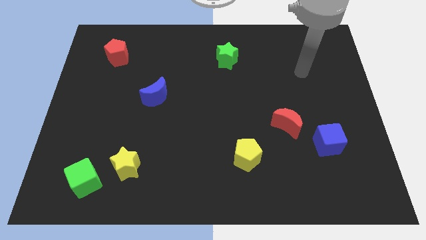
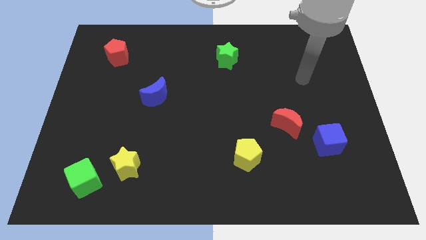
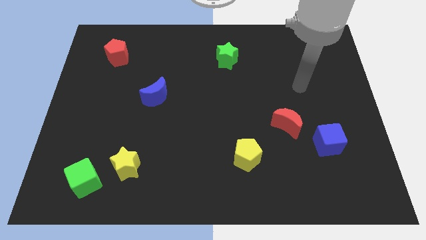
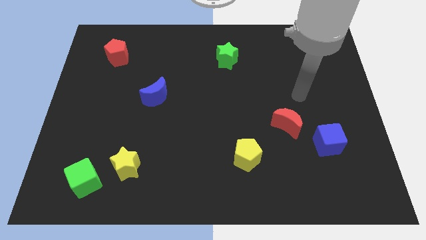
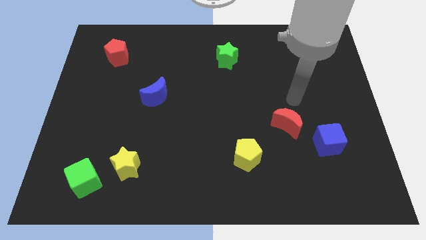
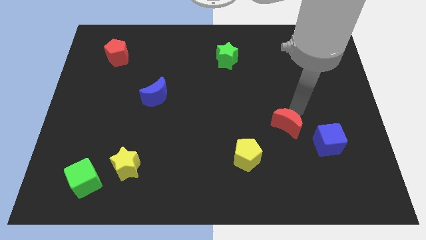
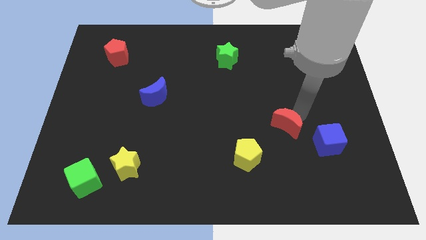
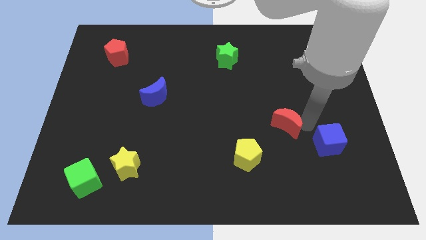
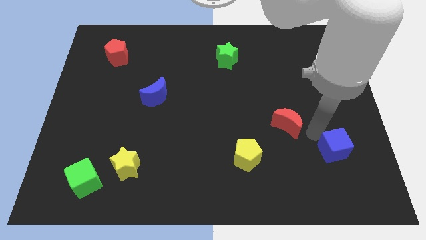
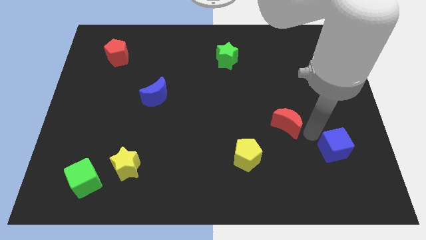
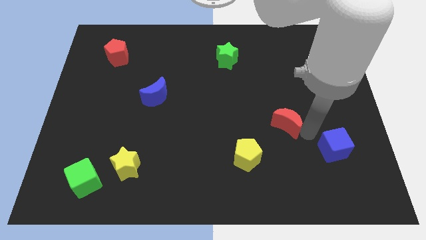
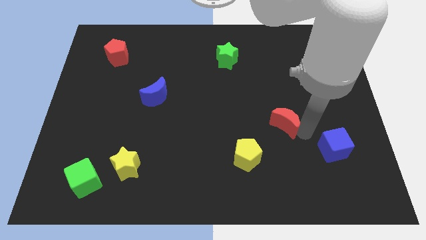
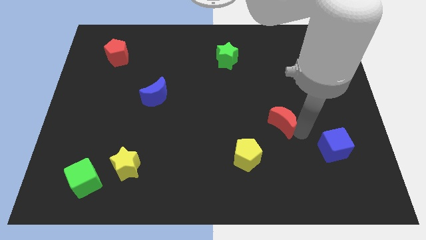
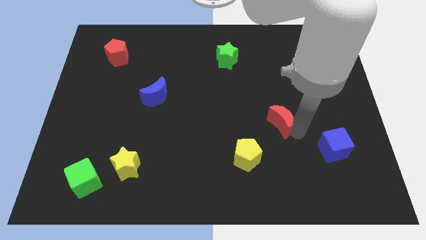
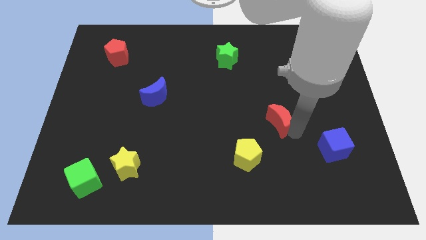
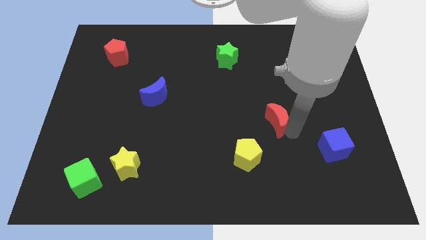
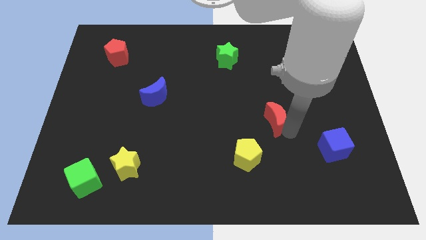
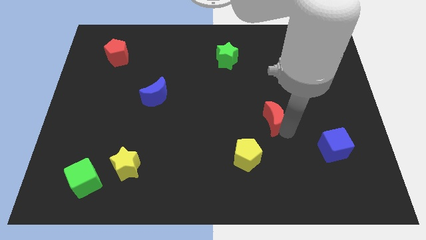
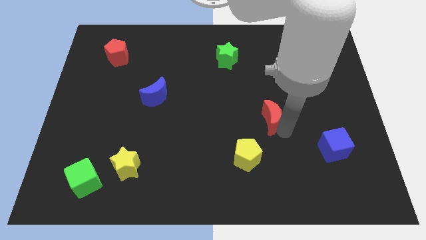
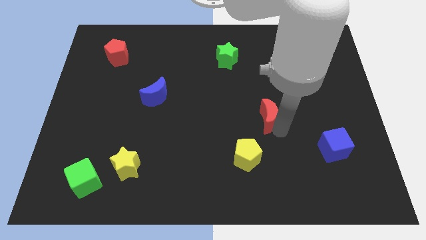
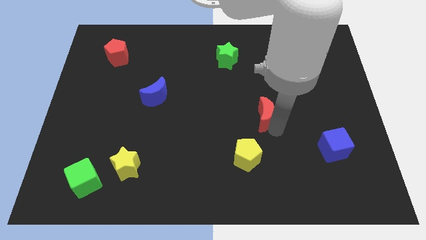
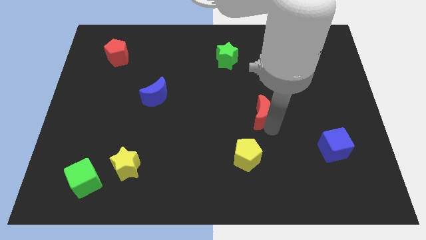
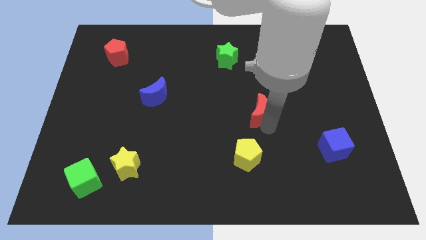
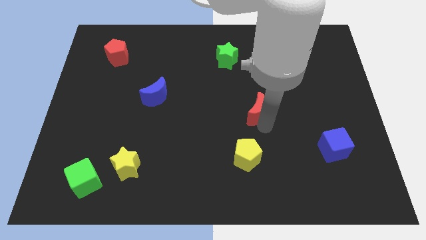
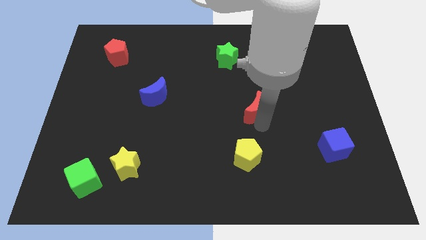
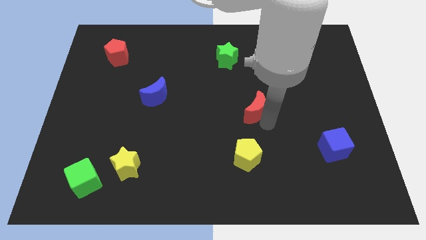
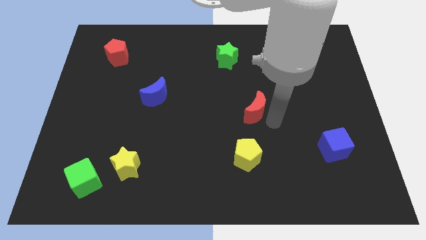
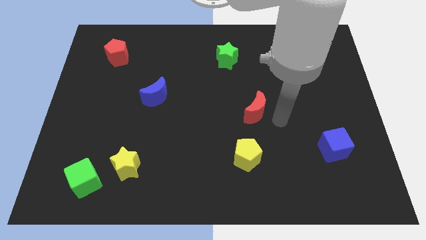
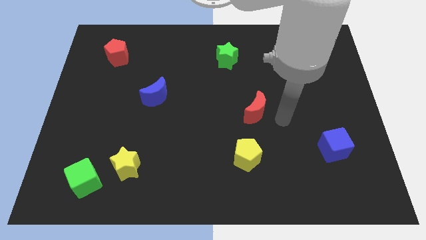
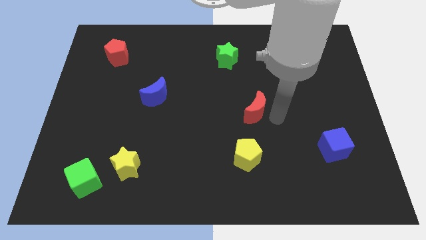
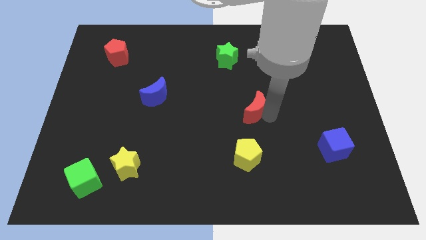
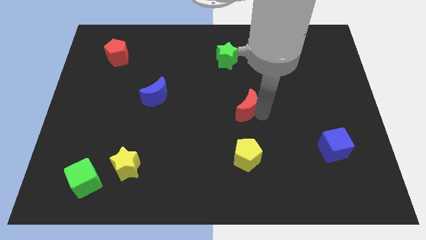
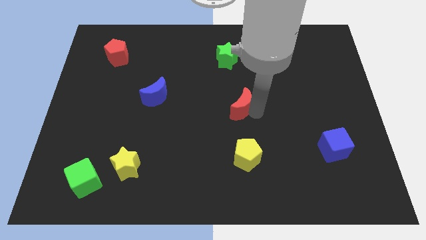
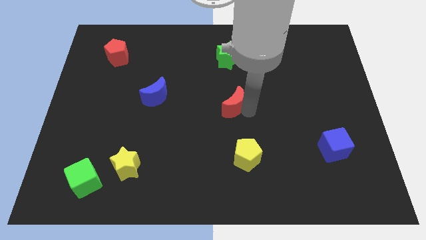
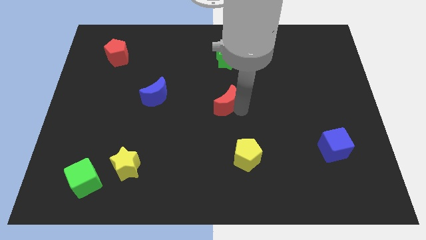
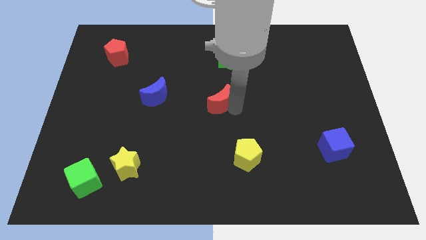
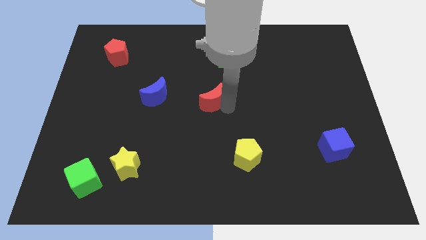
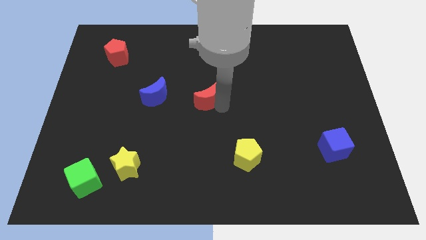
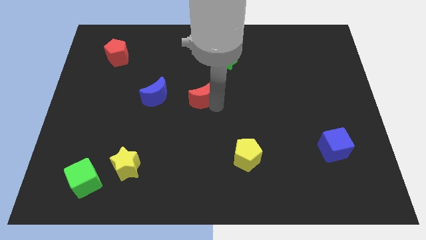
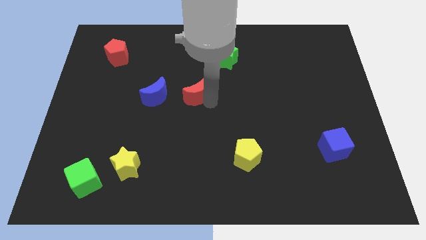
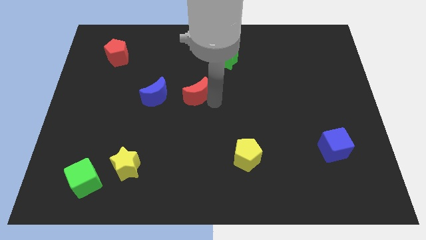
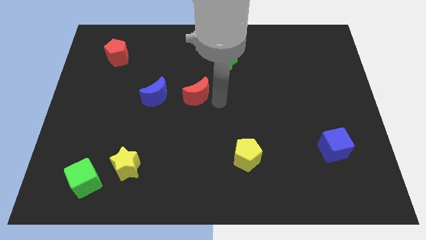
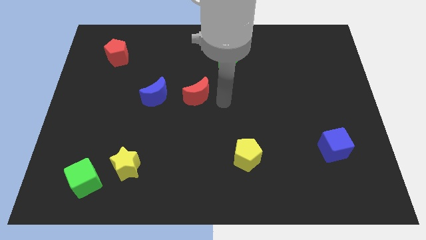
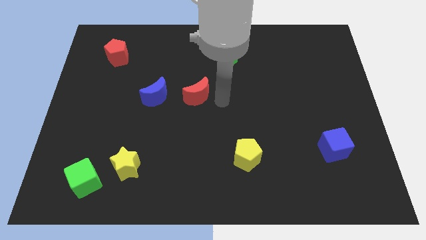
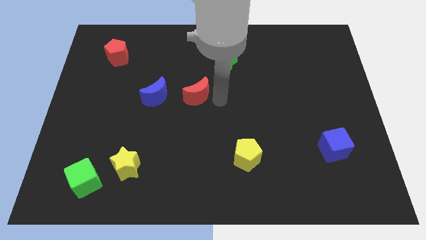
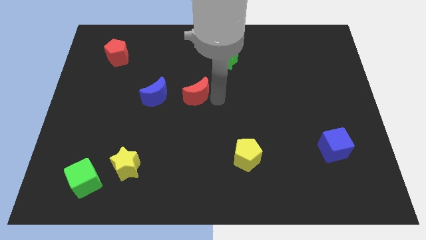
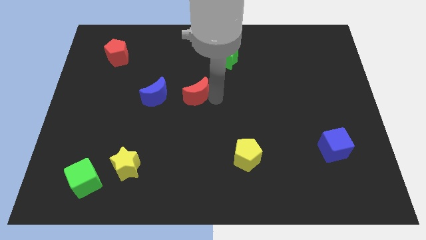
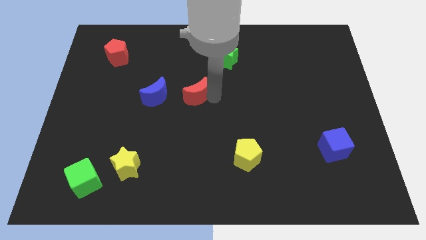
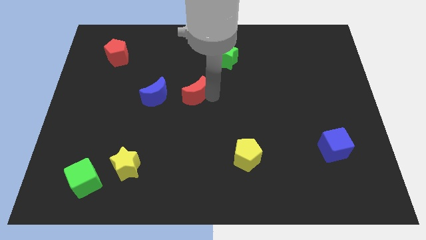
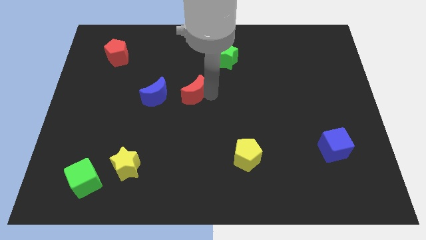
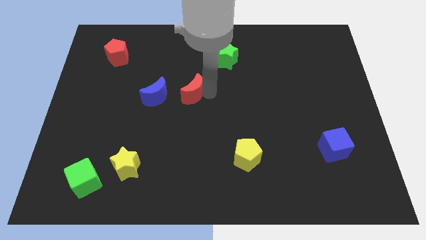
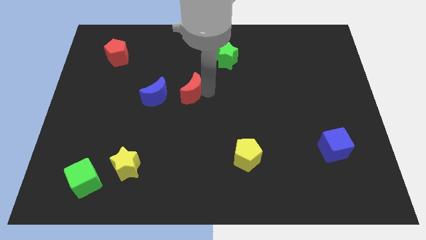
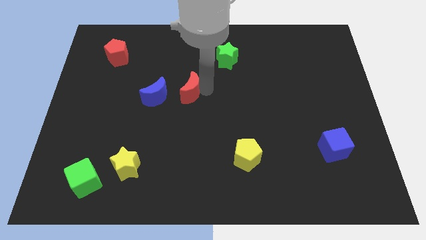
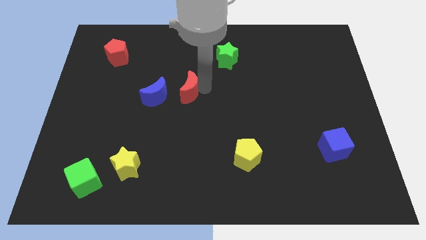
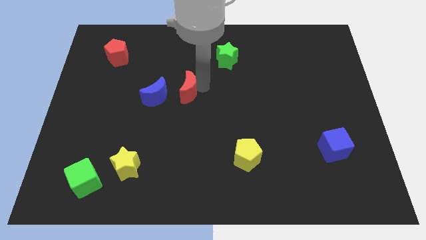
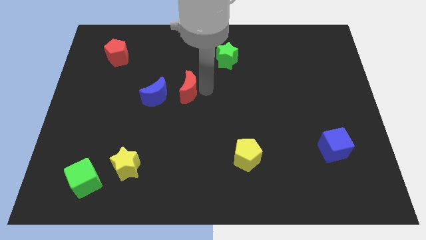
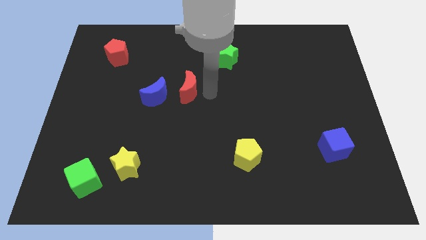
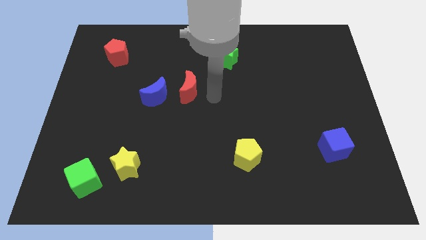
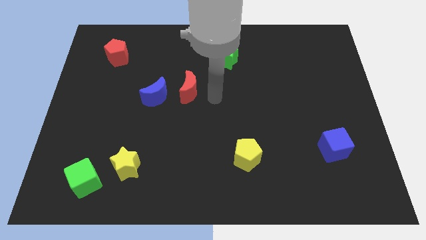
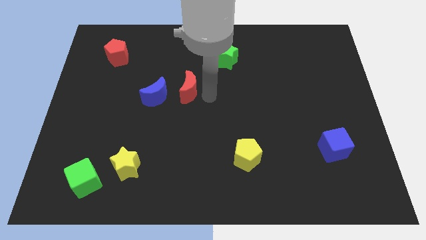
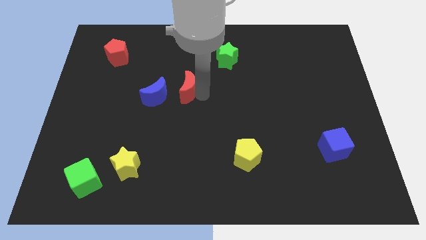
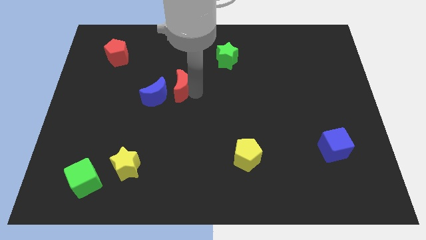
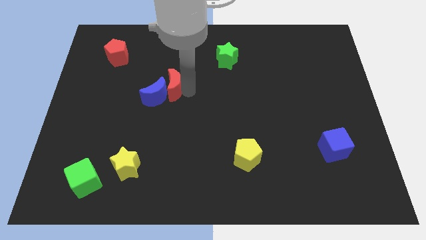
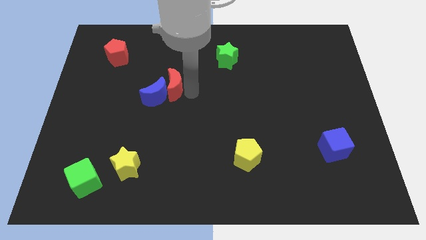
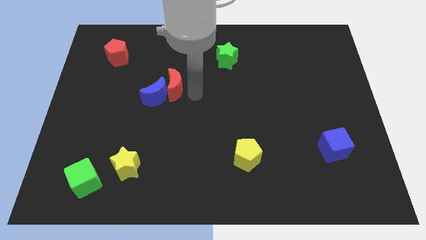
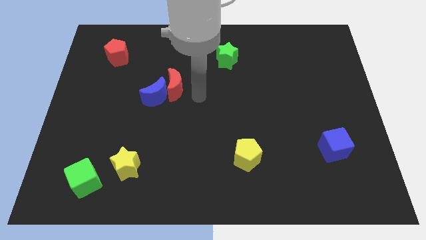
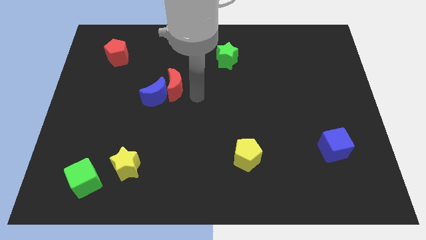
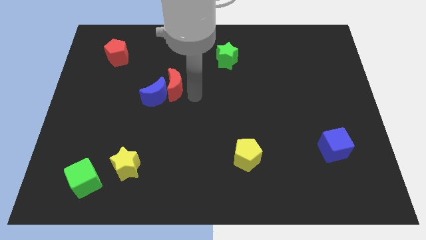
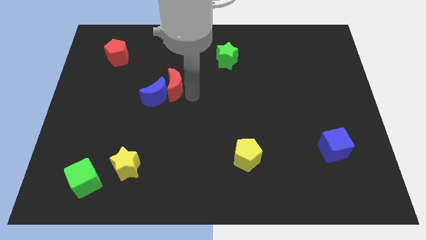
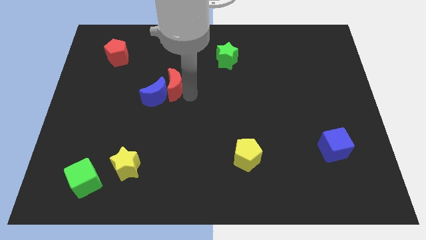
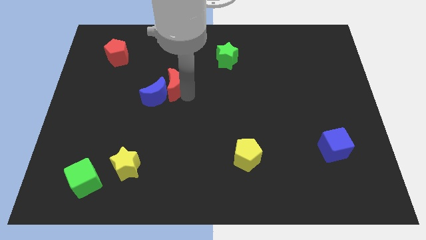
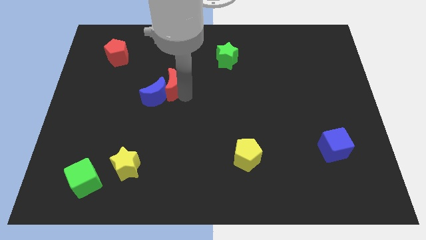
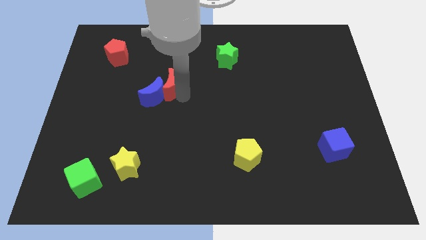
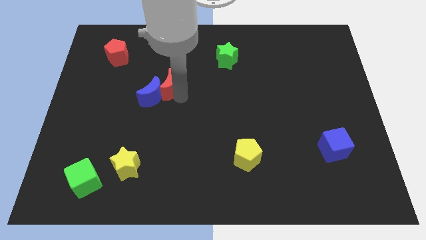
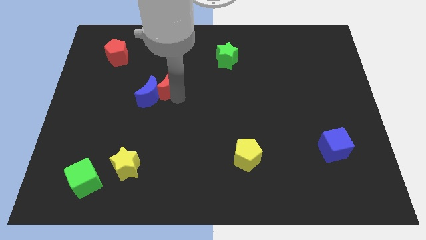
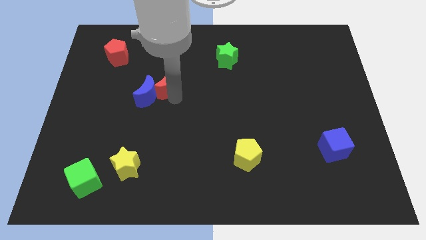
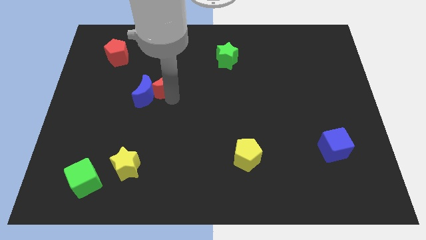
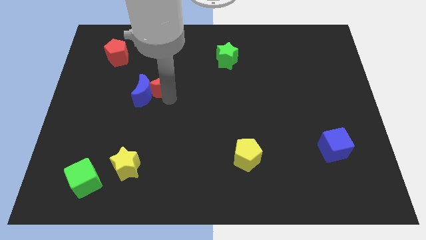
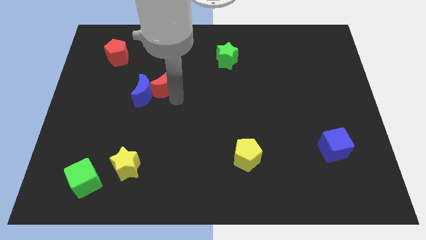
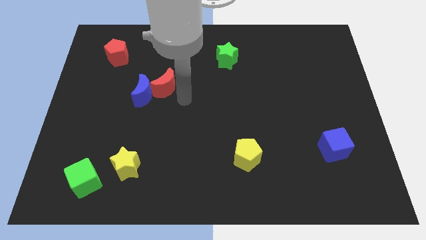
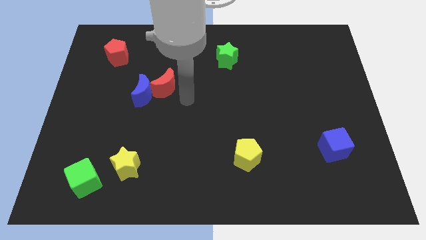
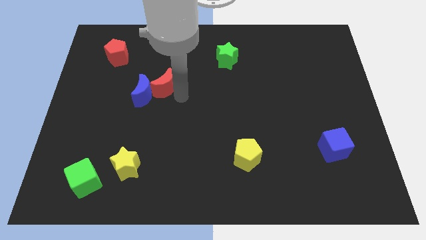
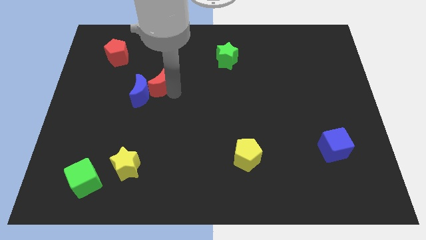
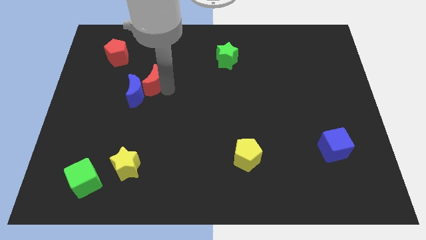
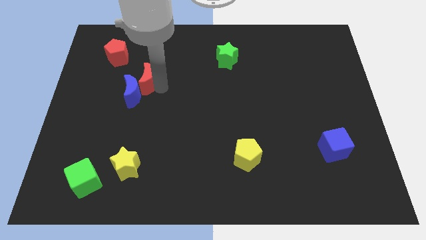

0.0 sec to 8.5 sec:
push the red moon to the bottom right of the red pentagon
